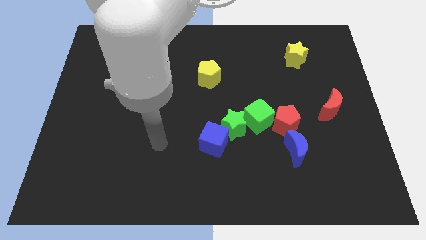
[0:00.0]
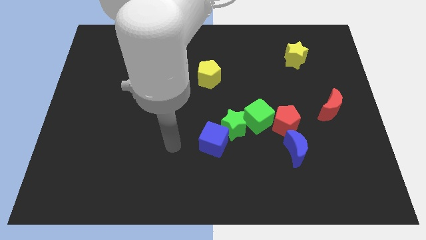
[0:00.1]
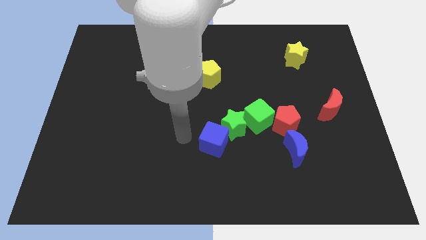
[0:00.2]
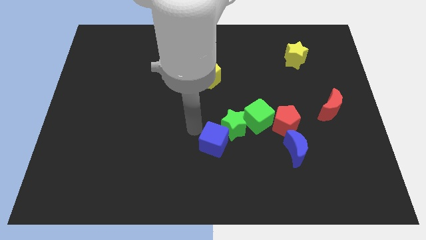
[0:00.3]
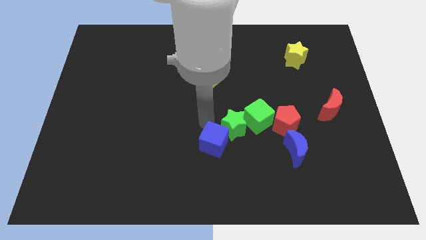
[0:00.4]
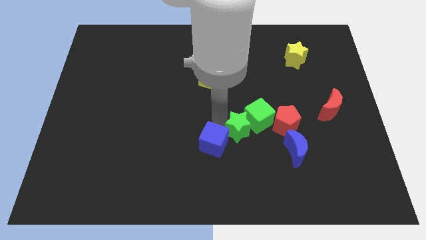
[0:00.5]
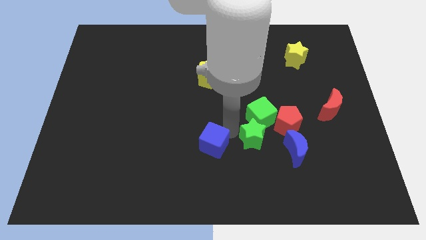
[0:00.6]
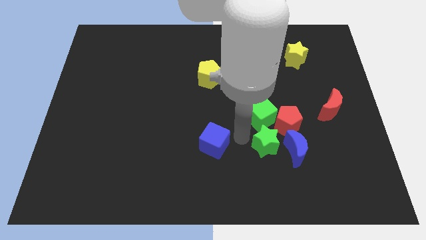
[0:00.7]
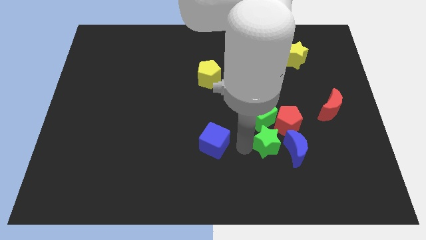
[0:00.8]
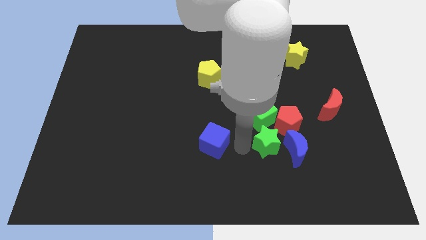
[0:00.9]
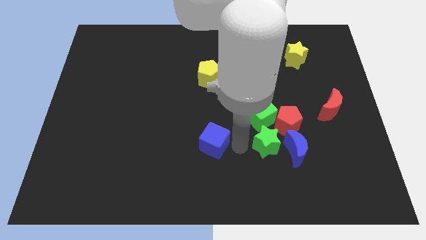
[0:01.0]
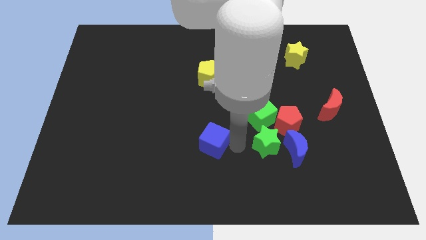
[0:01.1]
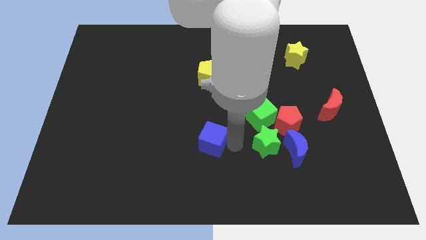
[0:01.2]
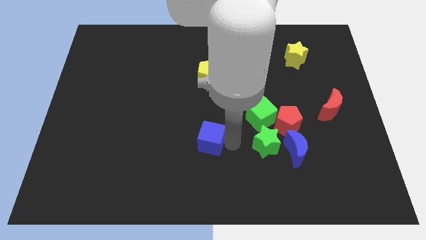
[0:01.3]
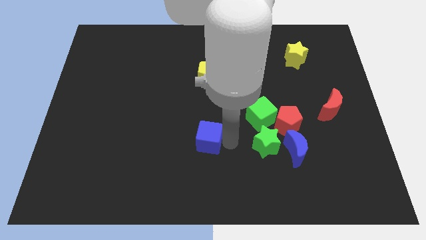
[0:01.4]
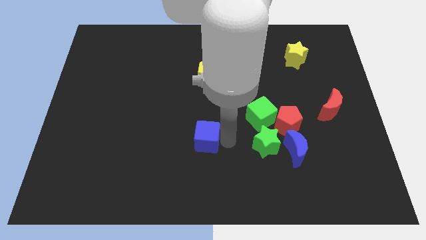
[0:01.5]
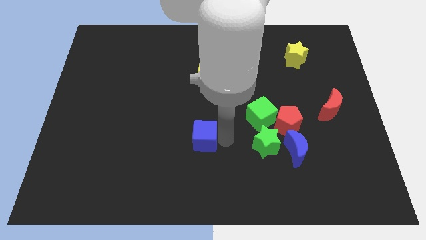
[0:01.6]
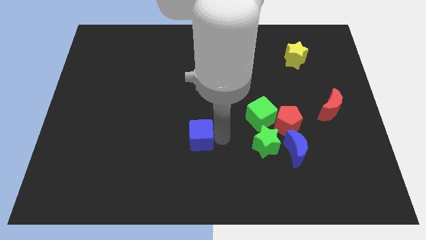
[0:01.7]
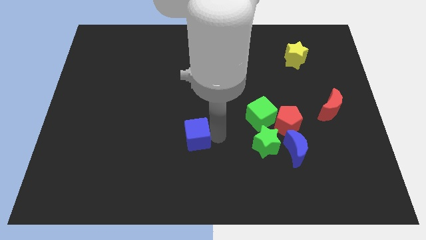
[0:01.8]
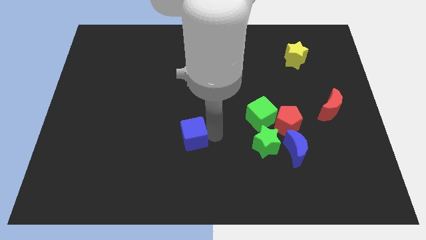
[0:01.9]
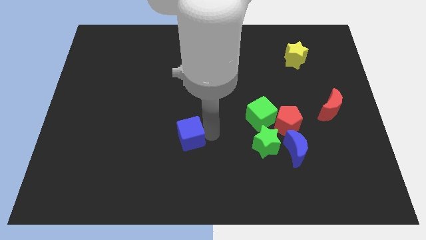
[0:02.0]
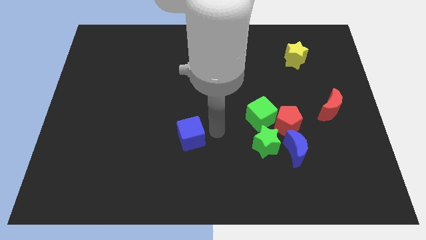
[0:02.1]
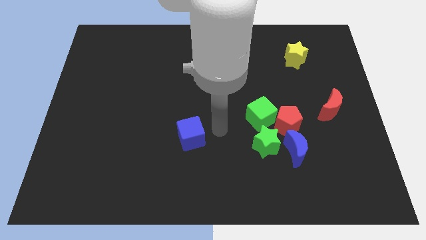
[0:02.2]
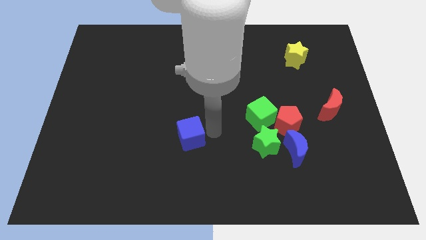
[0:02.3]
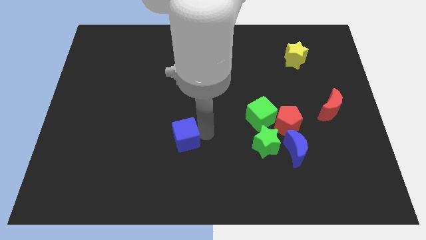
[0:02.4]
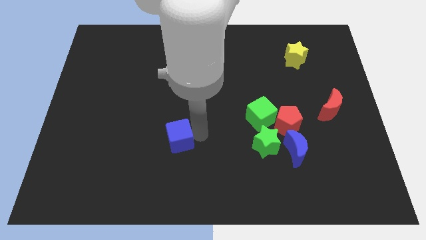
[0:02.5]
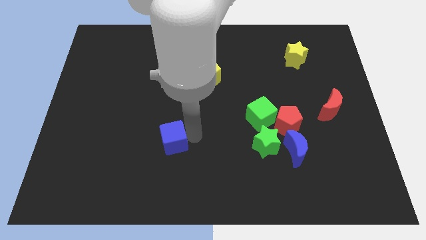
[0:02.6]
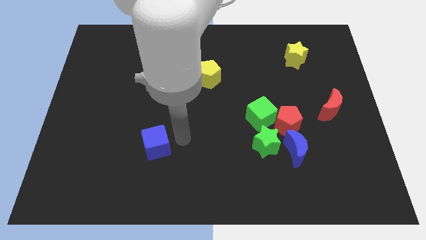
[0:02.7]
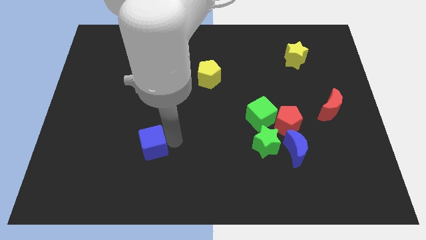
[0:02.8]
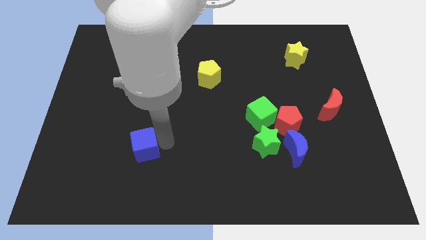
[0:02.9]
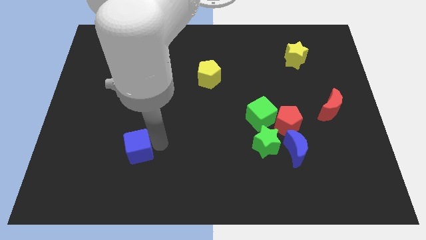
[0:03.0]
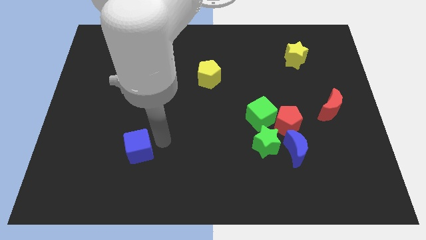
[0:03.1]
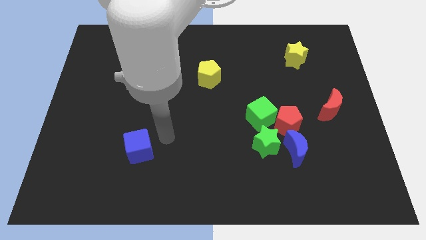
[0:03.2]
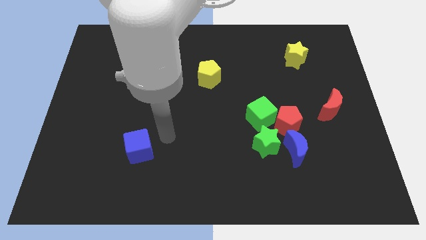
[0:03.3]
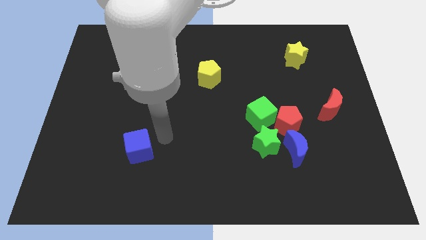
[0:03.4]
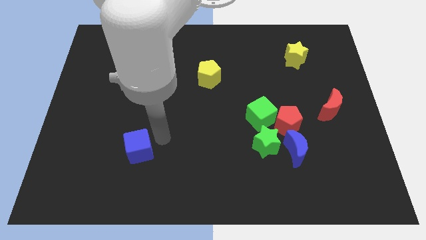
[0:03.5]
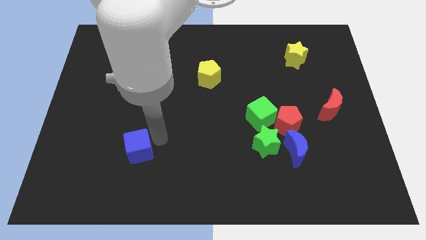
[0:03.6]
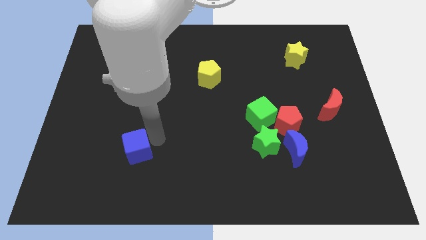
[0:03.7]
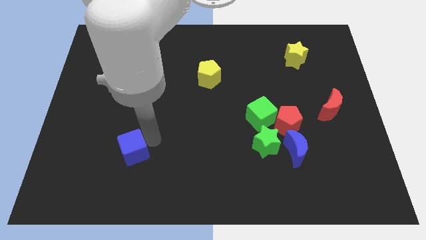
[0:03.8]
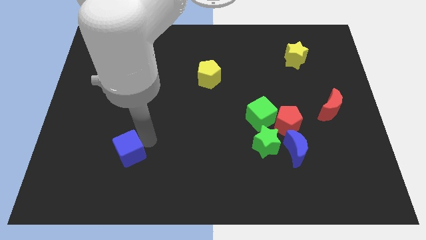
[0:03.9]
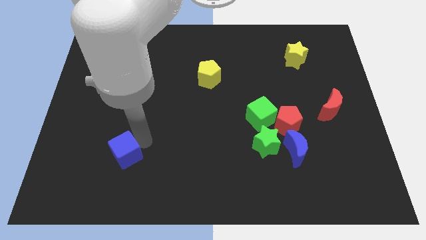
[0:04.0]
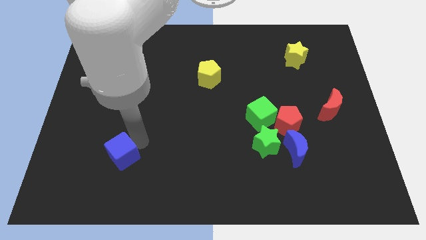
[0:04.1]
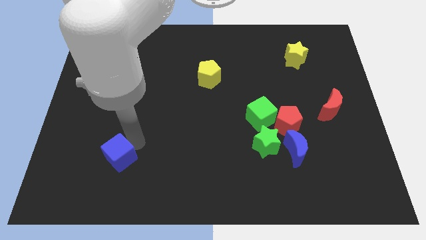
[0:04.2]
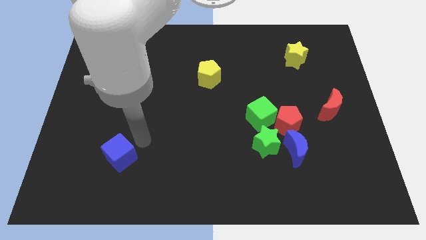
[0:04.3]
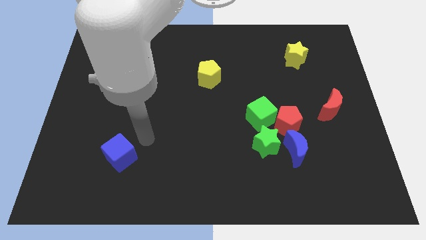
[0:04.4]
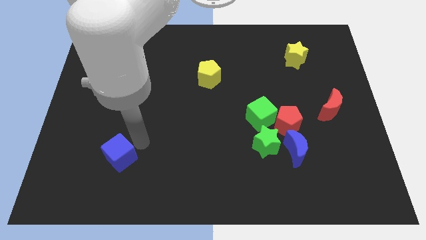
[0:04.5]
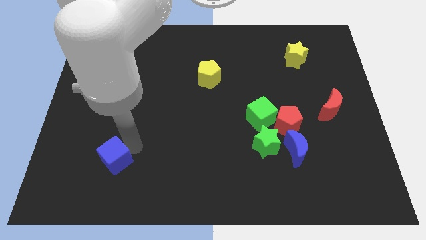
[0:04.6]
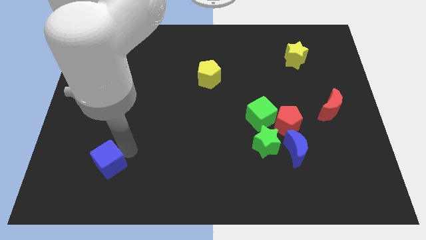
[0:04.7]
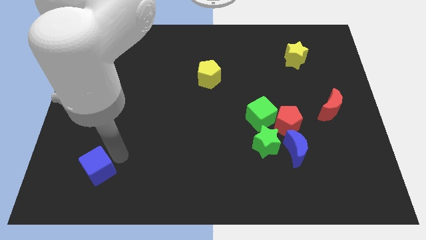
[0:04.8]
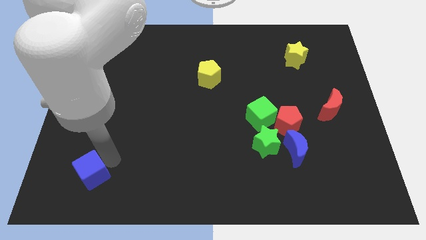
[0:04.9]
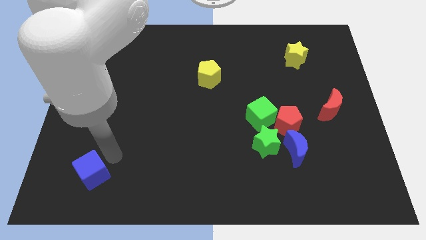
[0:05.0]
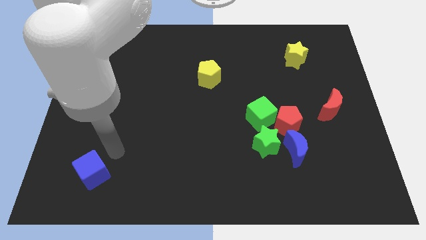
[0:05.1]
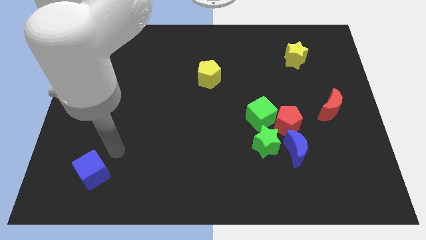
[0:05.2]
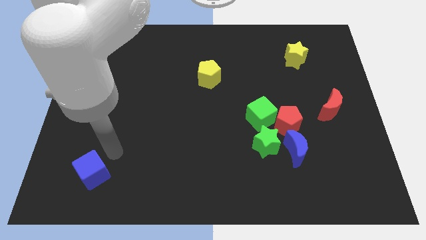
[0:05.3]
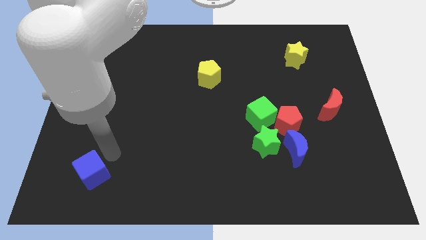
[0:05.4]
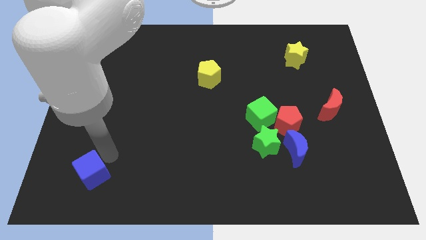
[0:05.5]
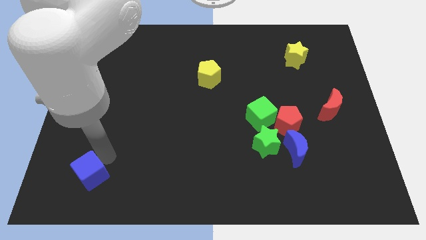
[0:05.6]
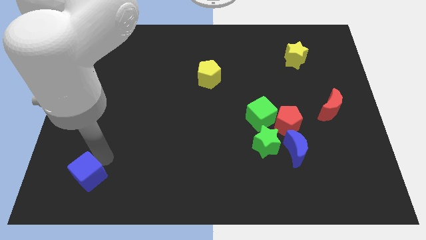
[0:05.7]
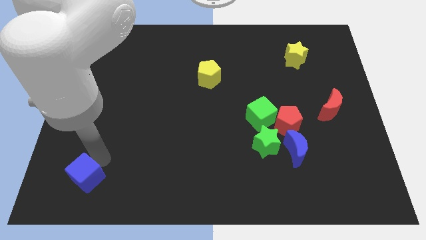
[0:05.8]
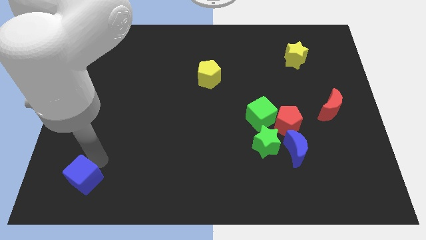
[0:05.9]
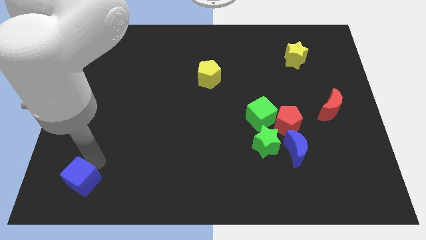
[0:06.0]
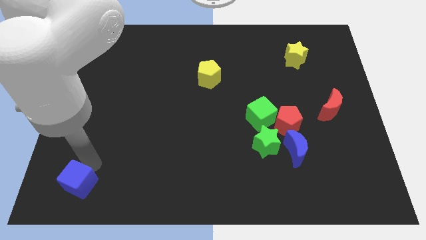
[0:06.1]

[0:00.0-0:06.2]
move the blue cube to the lower left corner
